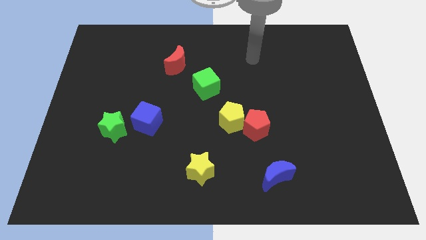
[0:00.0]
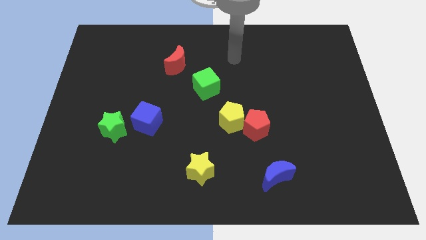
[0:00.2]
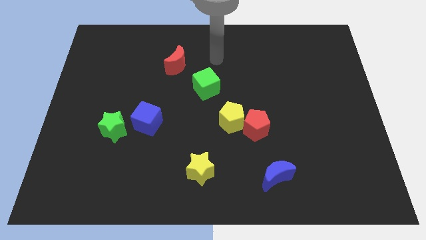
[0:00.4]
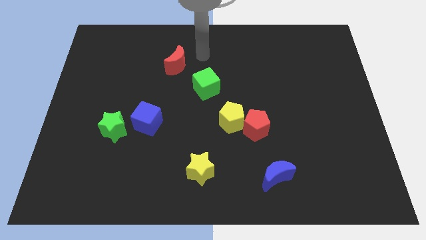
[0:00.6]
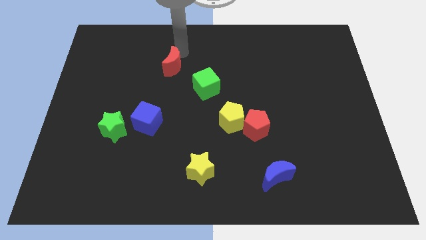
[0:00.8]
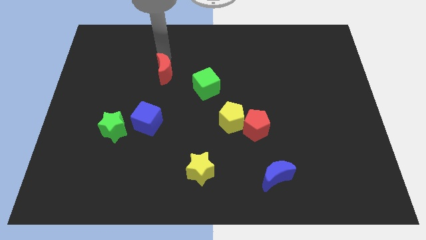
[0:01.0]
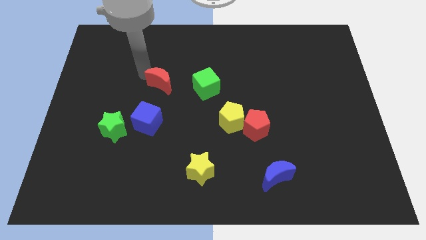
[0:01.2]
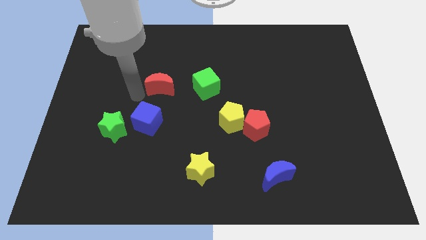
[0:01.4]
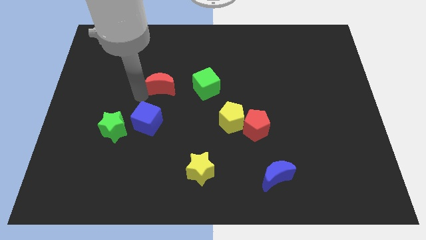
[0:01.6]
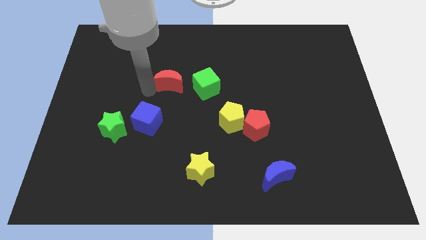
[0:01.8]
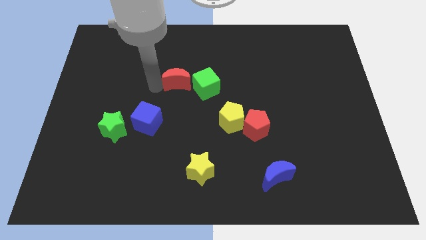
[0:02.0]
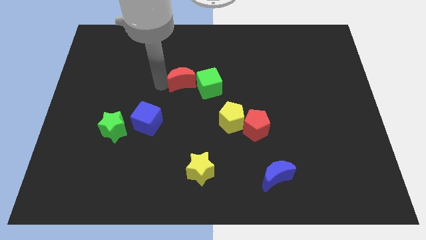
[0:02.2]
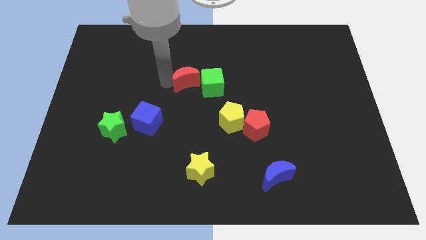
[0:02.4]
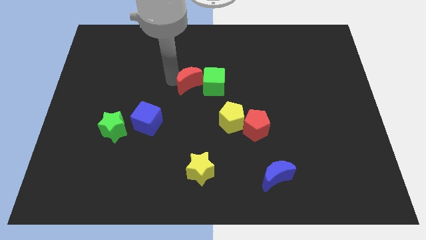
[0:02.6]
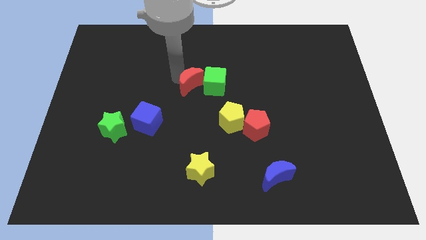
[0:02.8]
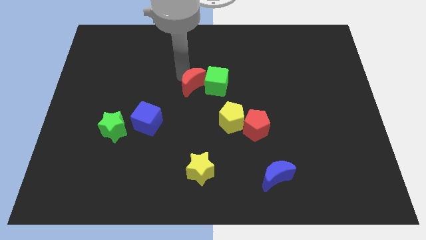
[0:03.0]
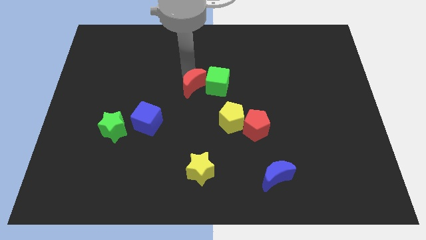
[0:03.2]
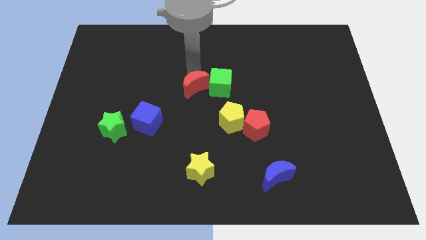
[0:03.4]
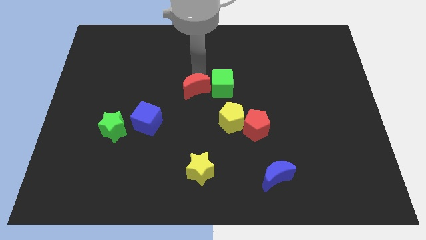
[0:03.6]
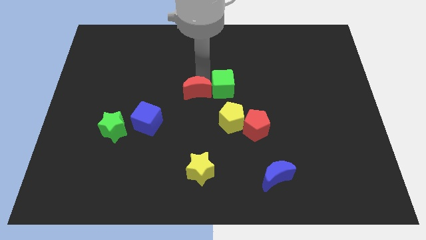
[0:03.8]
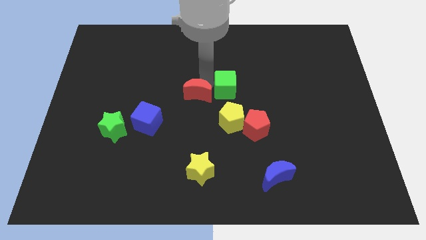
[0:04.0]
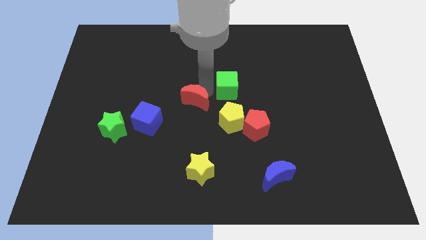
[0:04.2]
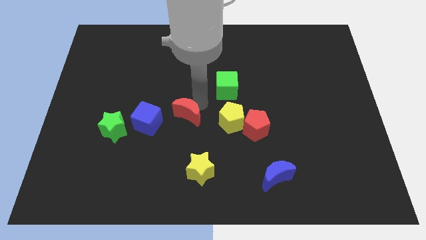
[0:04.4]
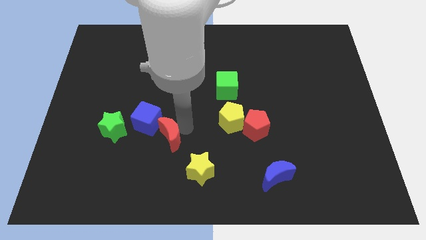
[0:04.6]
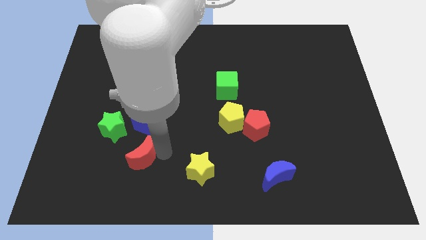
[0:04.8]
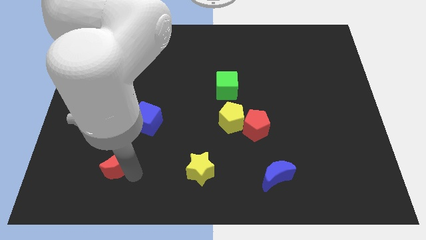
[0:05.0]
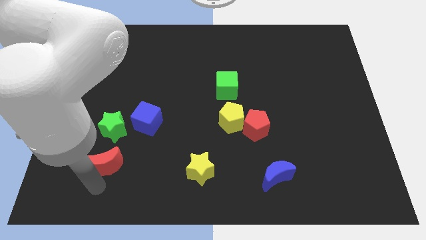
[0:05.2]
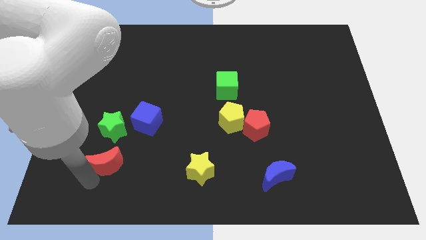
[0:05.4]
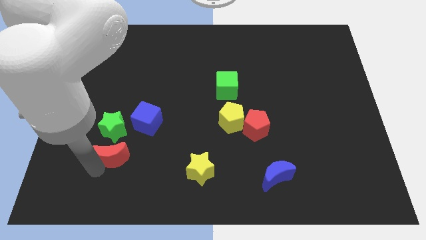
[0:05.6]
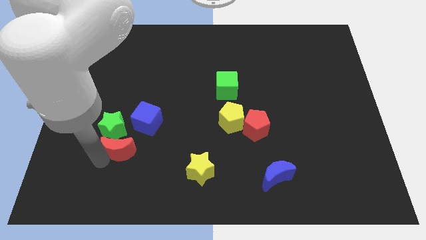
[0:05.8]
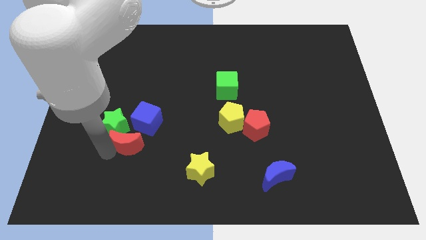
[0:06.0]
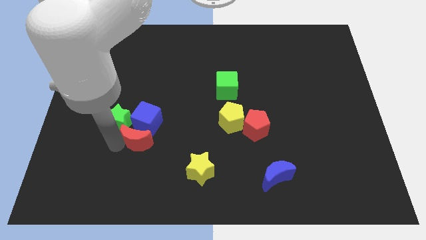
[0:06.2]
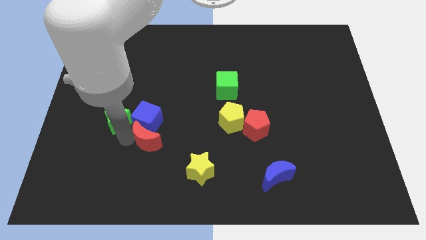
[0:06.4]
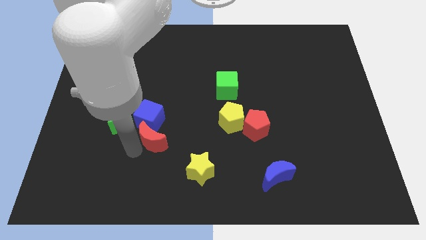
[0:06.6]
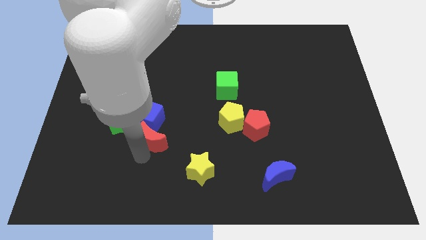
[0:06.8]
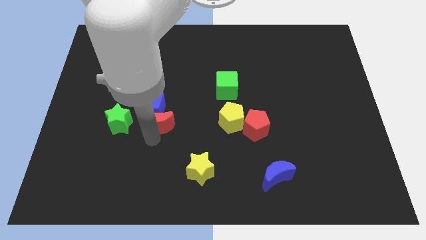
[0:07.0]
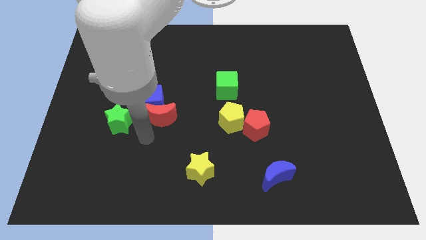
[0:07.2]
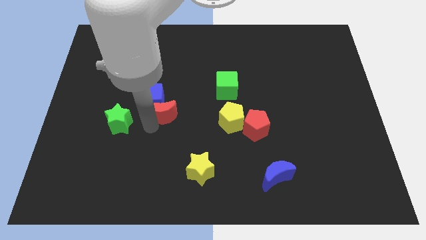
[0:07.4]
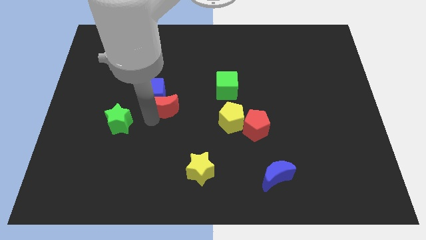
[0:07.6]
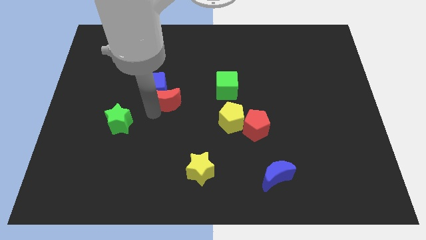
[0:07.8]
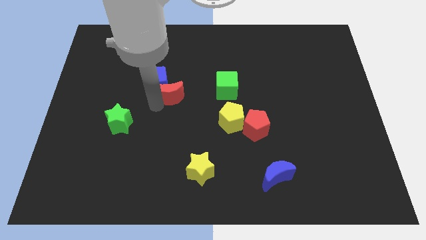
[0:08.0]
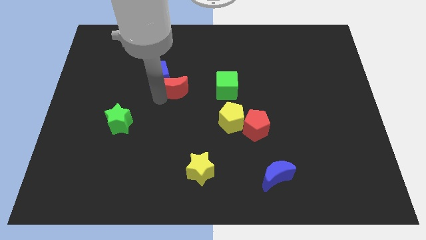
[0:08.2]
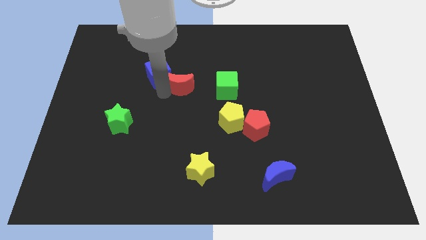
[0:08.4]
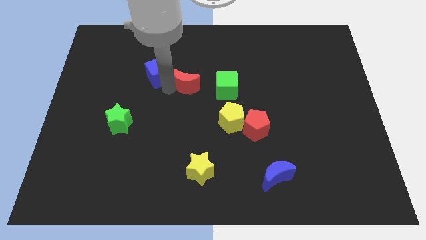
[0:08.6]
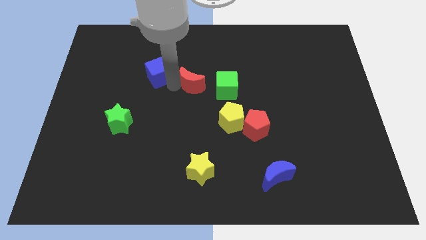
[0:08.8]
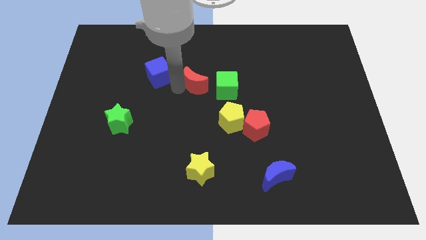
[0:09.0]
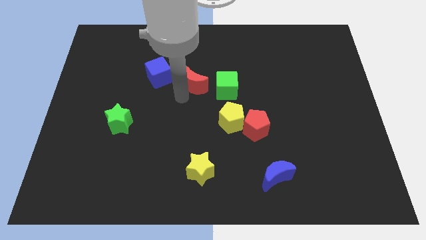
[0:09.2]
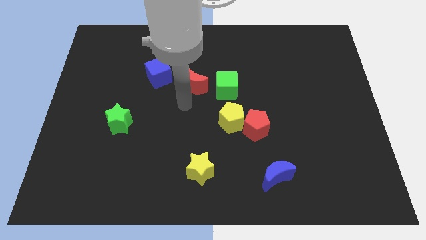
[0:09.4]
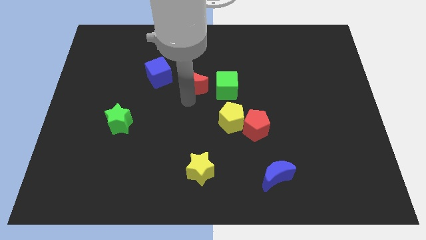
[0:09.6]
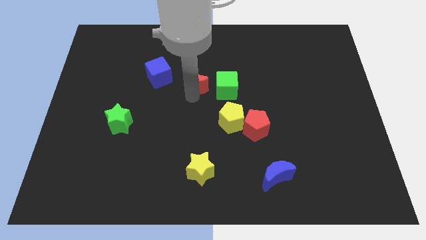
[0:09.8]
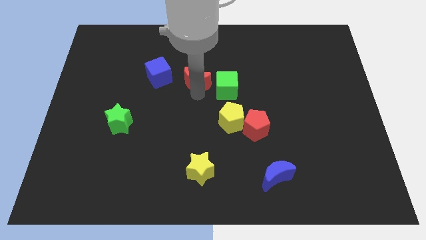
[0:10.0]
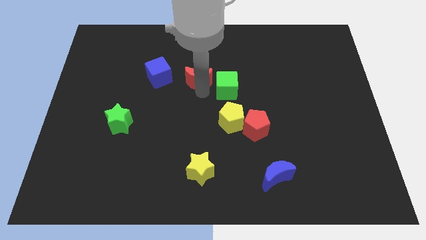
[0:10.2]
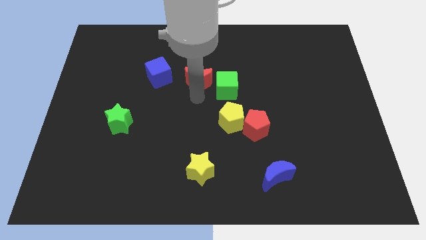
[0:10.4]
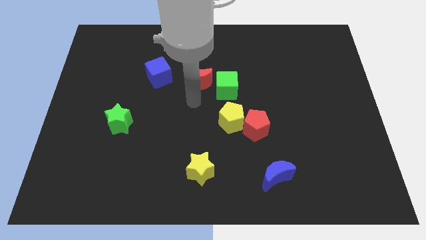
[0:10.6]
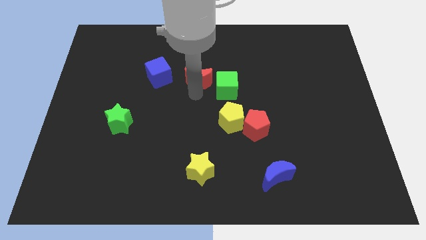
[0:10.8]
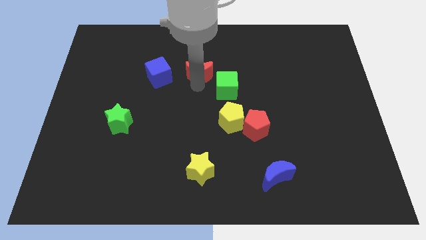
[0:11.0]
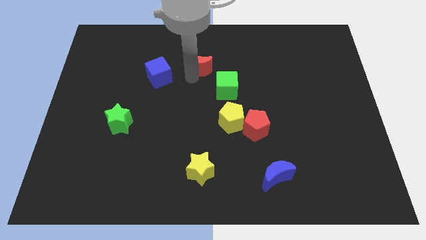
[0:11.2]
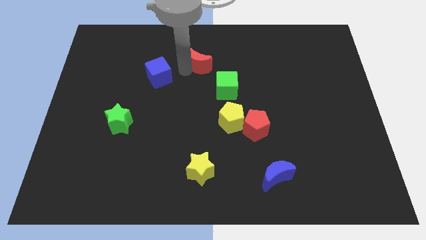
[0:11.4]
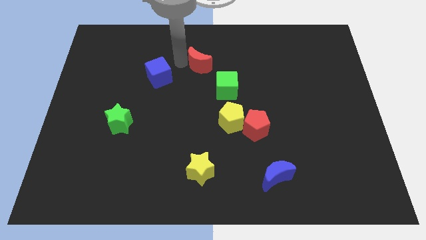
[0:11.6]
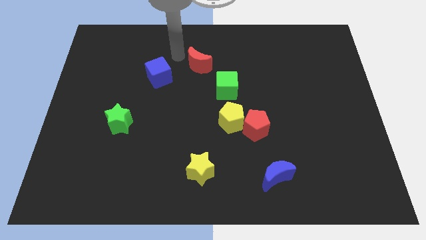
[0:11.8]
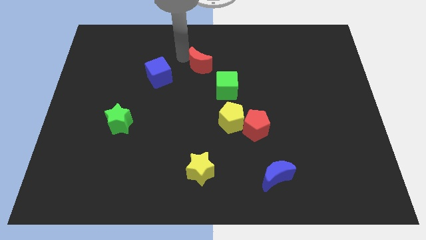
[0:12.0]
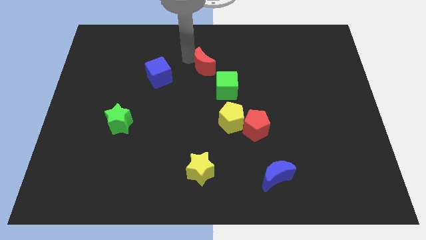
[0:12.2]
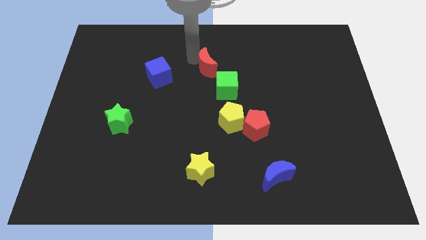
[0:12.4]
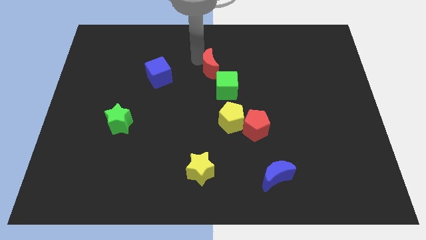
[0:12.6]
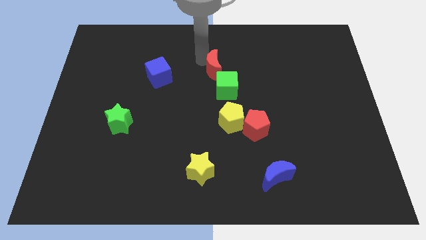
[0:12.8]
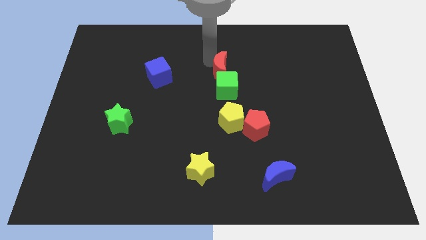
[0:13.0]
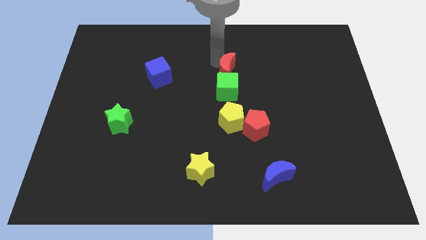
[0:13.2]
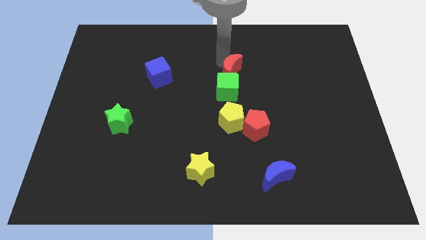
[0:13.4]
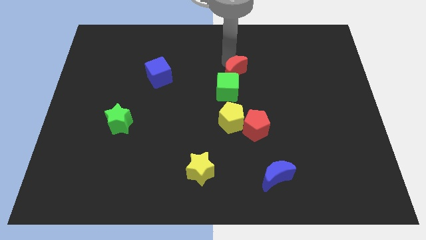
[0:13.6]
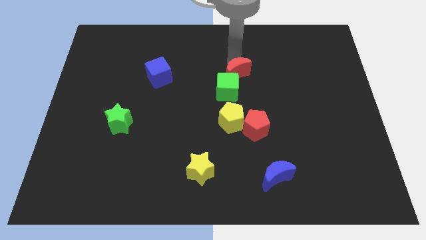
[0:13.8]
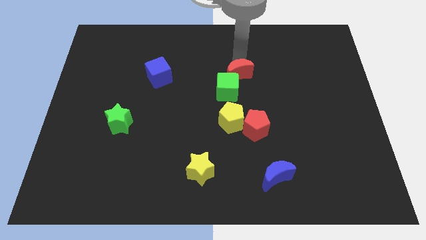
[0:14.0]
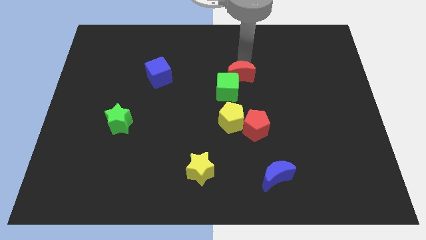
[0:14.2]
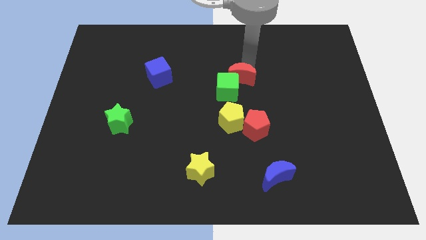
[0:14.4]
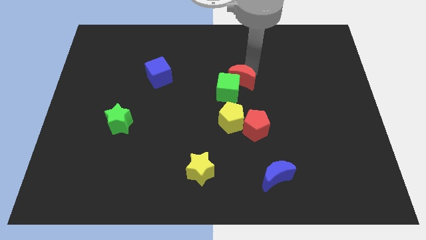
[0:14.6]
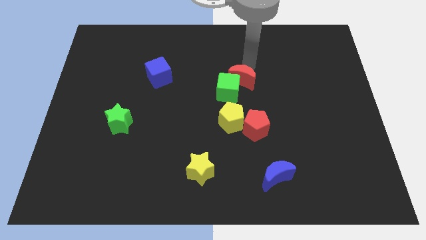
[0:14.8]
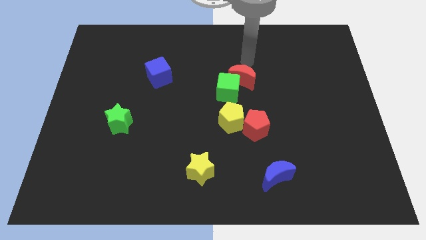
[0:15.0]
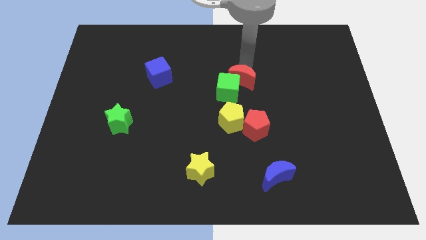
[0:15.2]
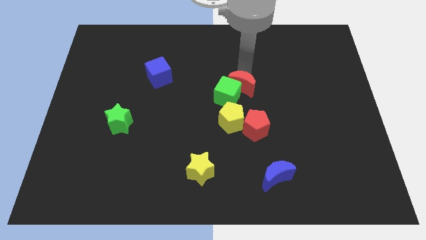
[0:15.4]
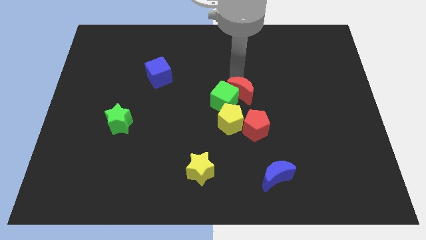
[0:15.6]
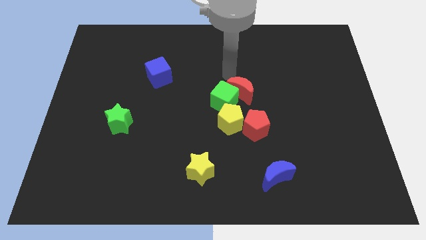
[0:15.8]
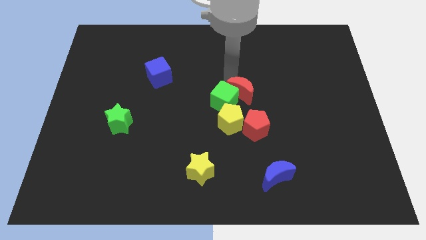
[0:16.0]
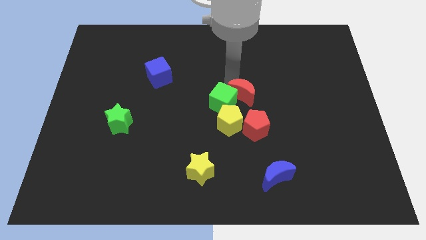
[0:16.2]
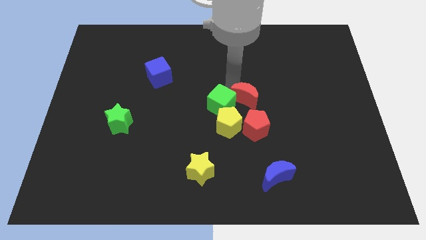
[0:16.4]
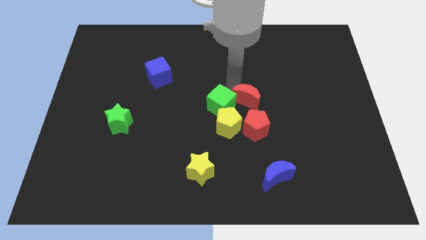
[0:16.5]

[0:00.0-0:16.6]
slide the red moon downwards and then to the right
